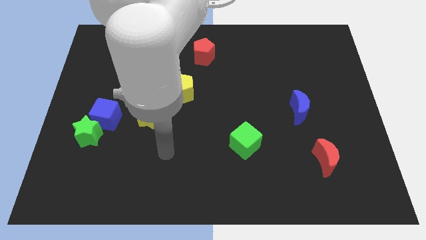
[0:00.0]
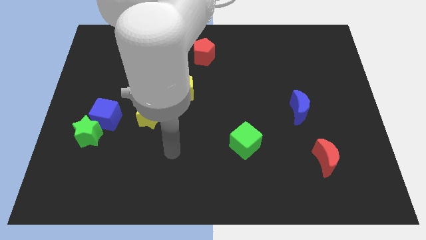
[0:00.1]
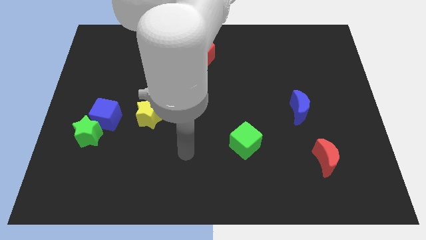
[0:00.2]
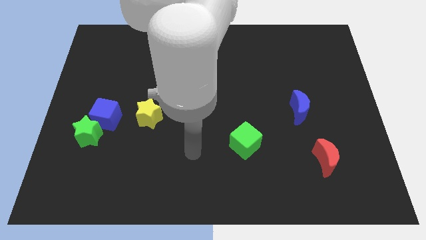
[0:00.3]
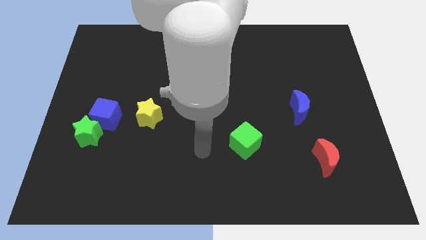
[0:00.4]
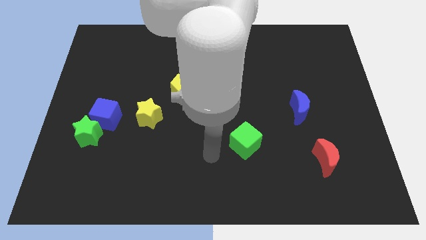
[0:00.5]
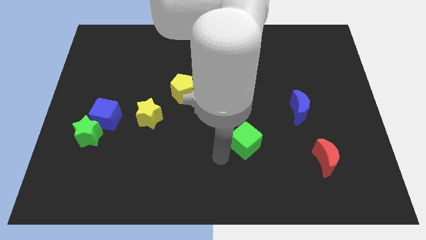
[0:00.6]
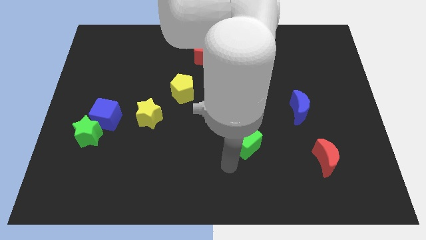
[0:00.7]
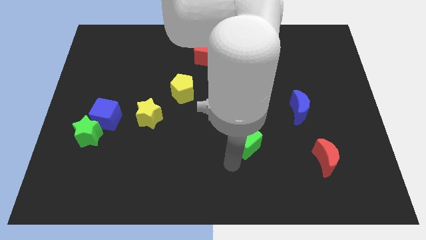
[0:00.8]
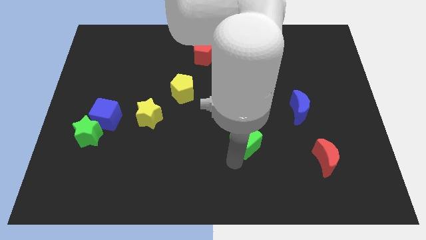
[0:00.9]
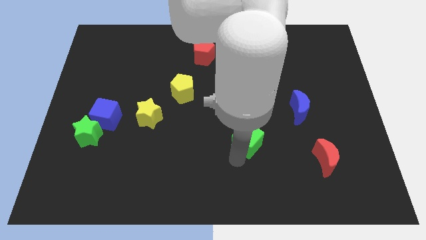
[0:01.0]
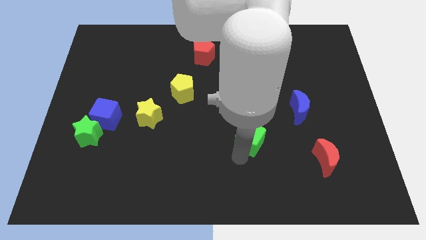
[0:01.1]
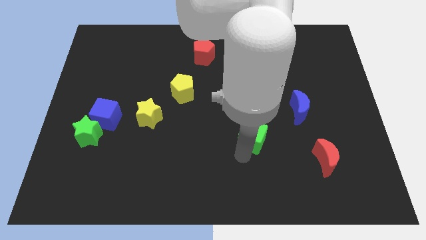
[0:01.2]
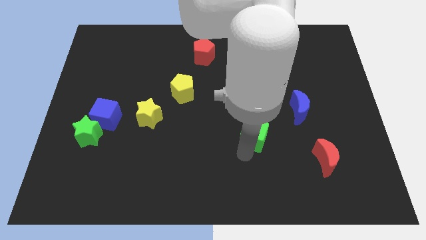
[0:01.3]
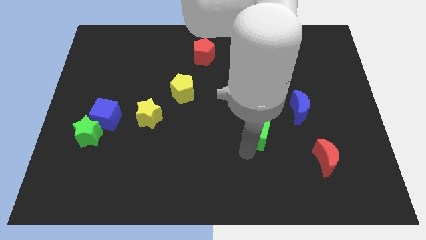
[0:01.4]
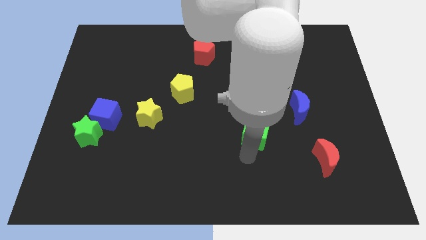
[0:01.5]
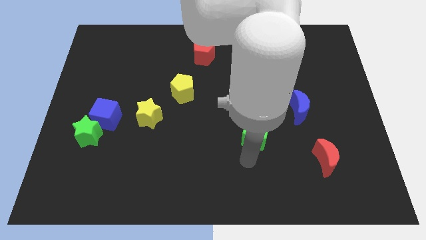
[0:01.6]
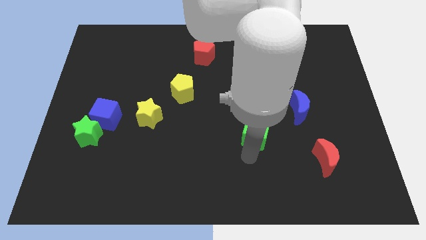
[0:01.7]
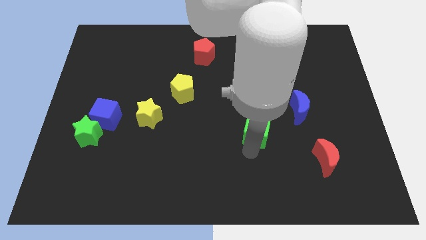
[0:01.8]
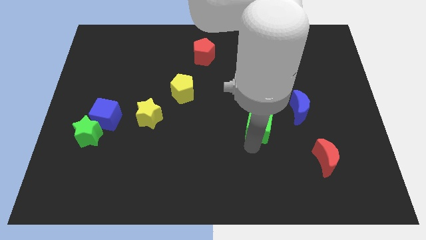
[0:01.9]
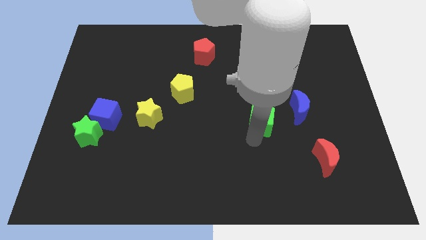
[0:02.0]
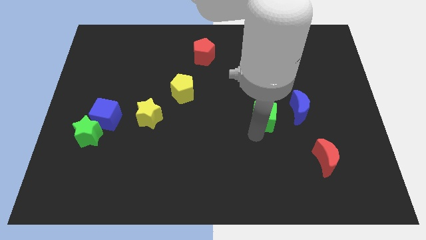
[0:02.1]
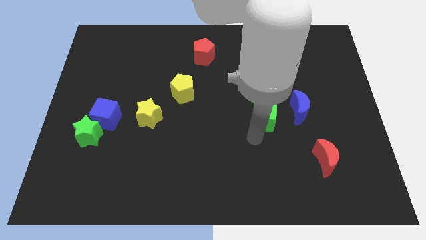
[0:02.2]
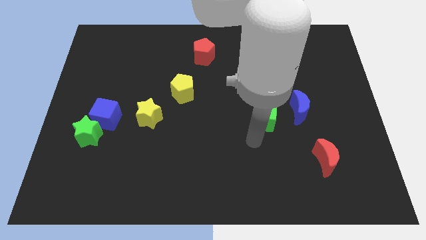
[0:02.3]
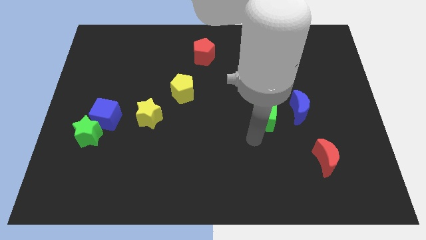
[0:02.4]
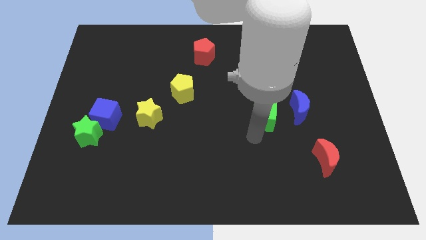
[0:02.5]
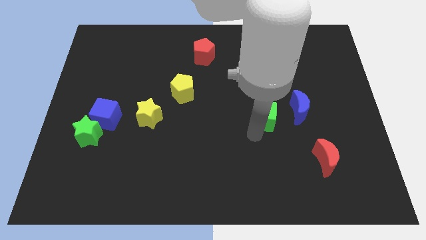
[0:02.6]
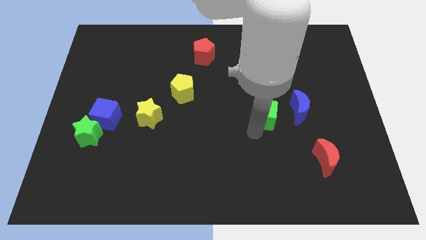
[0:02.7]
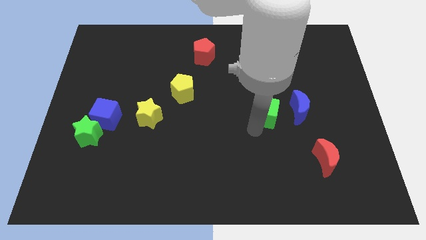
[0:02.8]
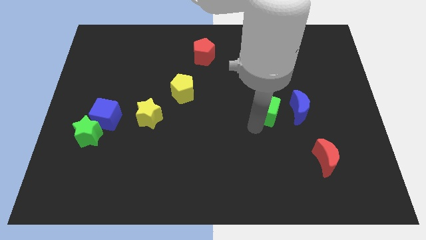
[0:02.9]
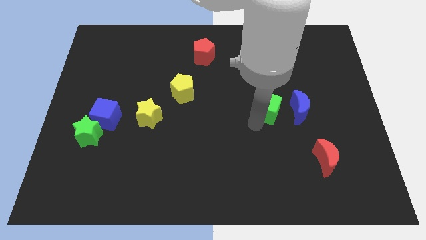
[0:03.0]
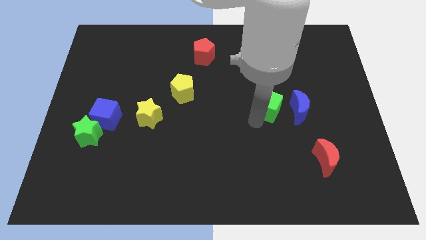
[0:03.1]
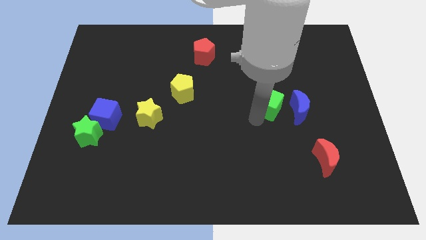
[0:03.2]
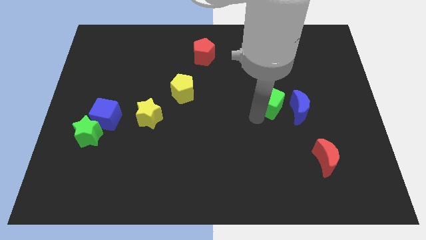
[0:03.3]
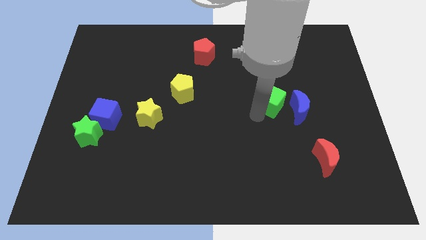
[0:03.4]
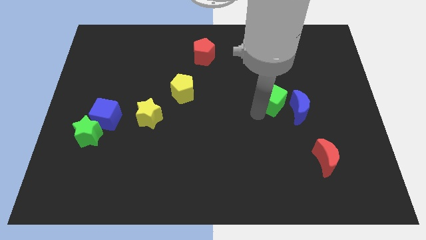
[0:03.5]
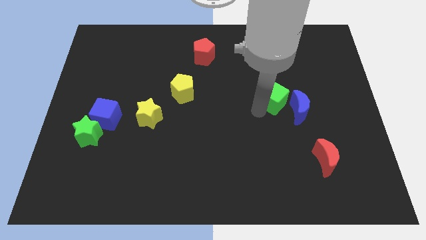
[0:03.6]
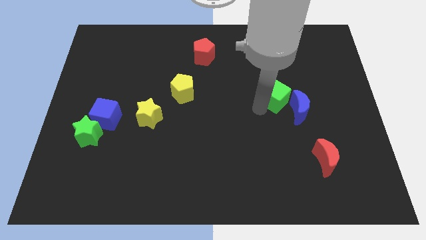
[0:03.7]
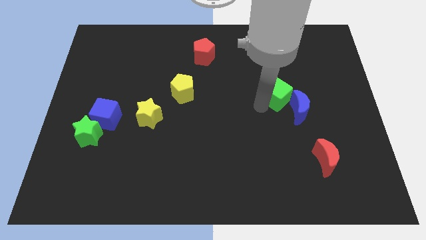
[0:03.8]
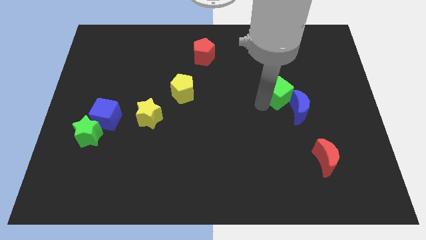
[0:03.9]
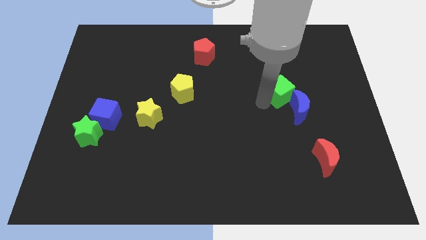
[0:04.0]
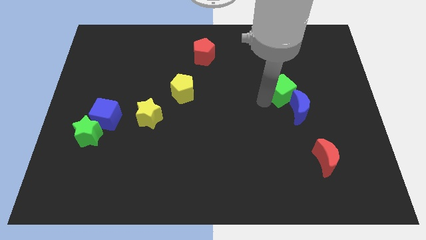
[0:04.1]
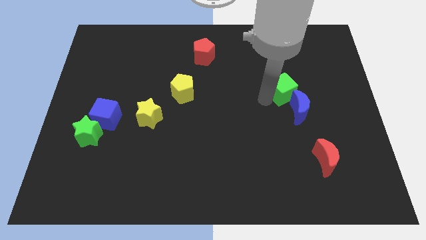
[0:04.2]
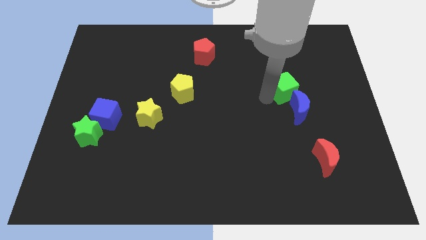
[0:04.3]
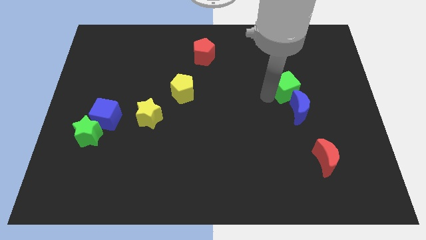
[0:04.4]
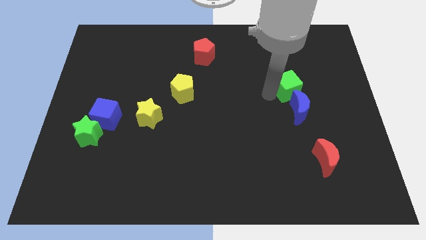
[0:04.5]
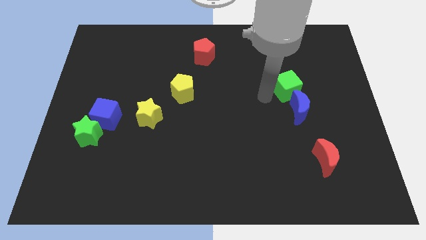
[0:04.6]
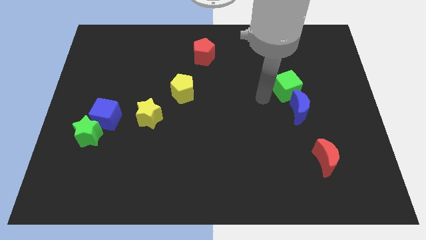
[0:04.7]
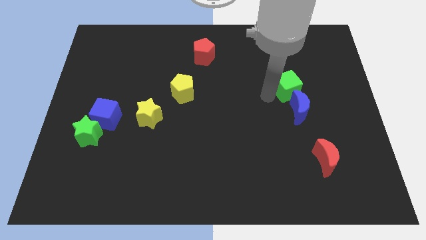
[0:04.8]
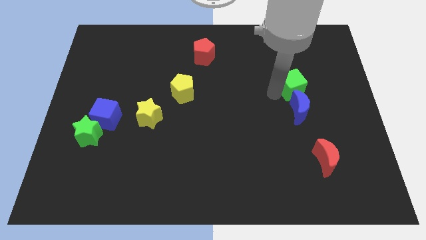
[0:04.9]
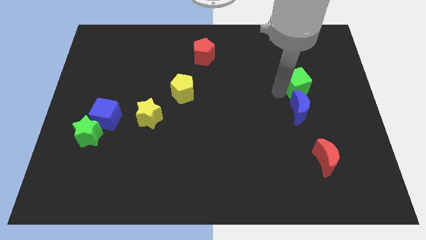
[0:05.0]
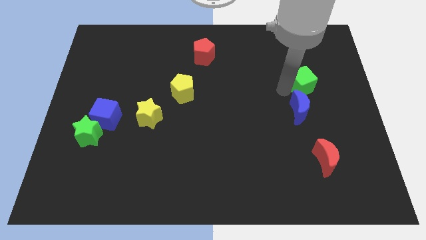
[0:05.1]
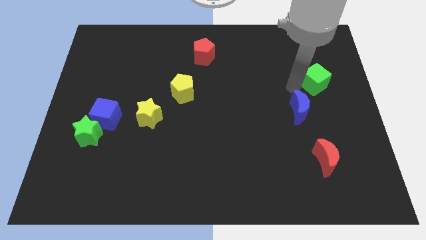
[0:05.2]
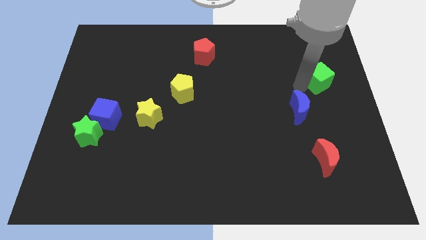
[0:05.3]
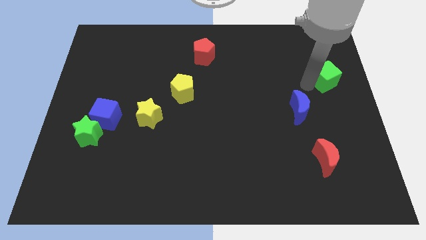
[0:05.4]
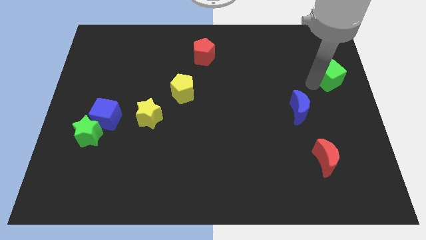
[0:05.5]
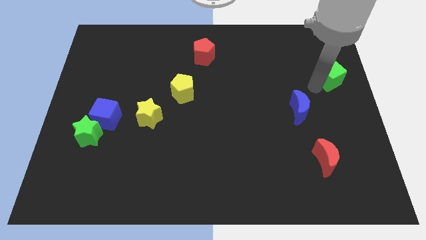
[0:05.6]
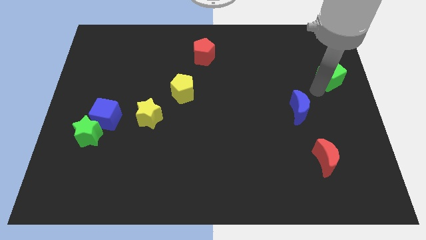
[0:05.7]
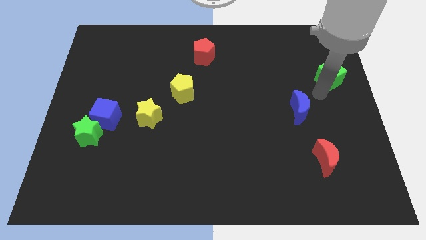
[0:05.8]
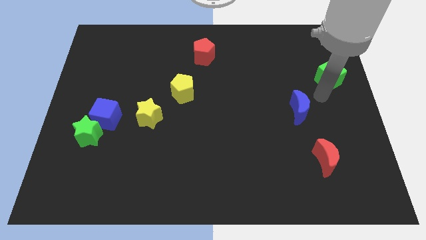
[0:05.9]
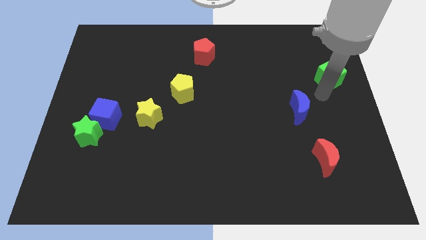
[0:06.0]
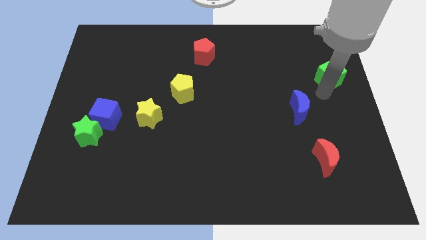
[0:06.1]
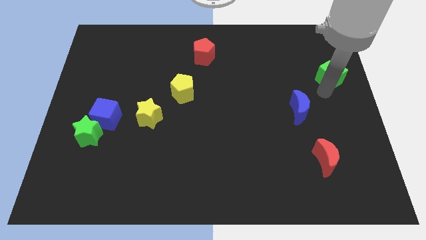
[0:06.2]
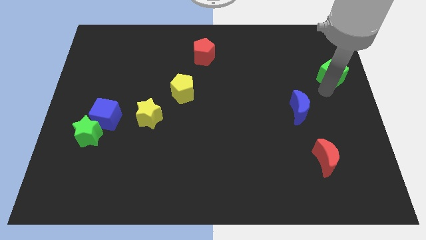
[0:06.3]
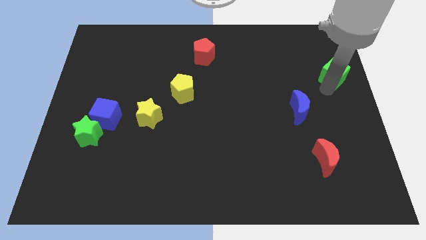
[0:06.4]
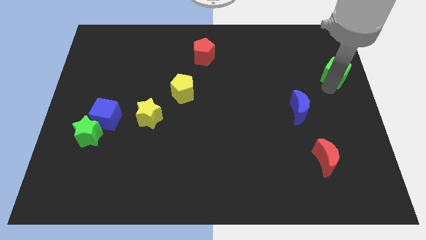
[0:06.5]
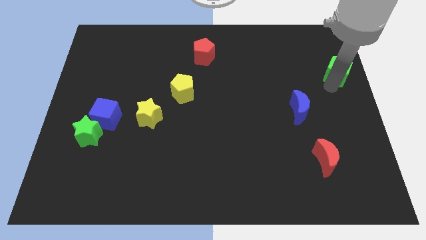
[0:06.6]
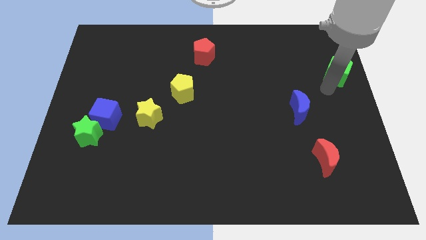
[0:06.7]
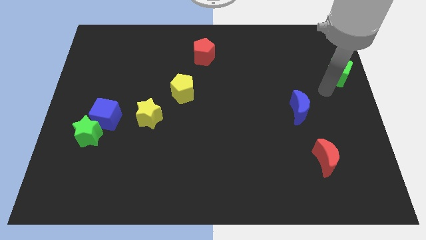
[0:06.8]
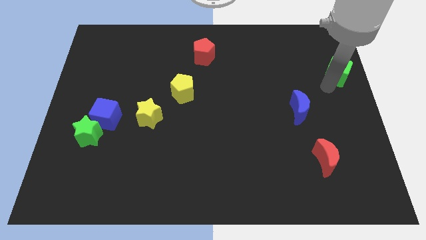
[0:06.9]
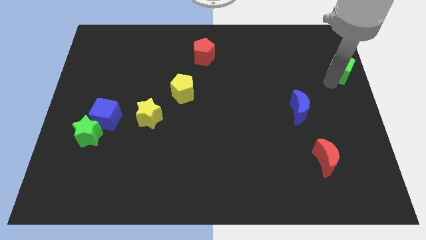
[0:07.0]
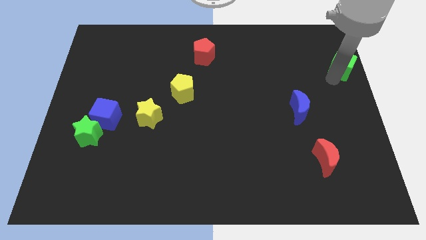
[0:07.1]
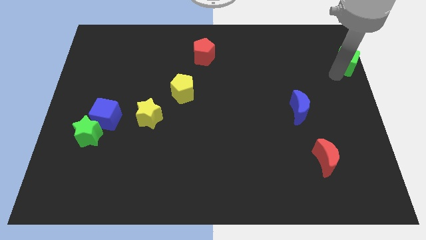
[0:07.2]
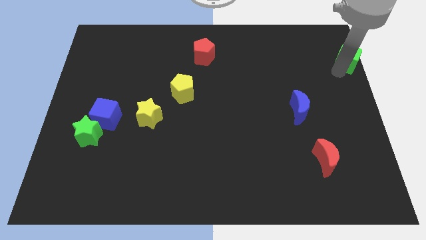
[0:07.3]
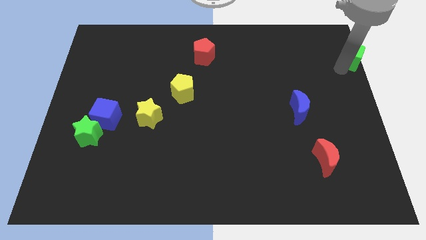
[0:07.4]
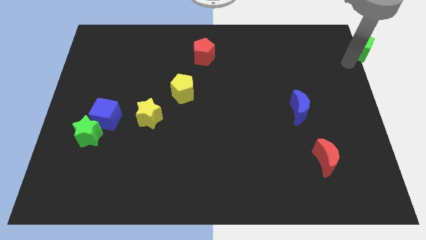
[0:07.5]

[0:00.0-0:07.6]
put the green cube to the top right of the board
